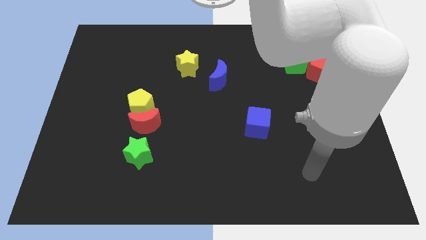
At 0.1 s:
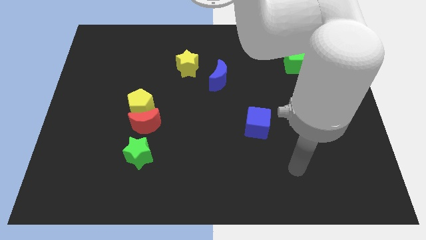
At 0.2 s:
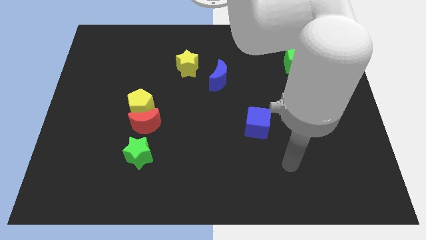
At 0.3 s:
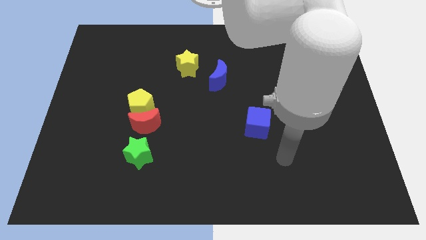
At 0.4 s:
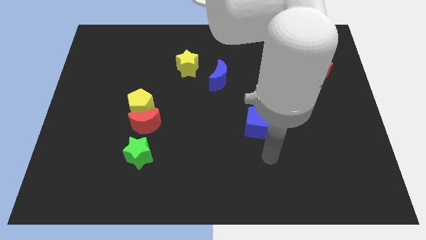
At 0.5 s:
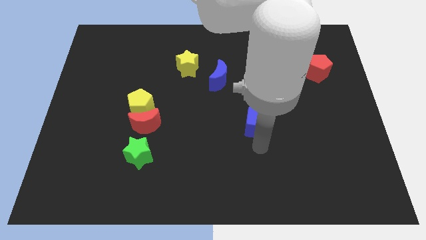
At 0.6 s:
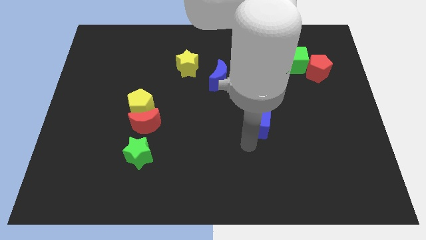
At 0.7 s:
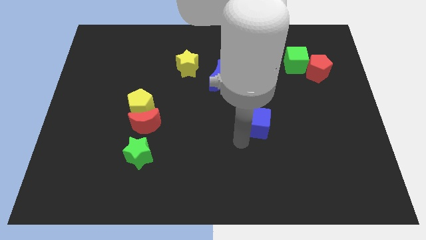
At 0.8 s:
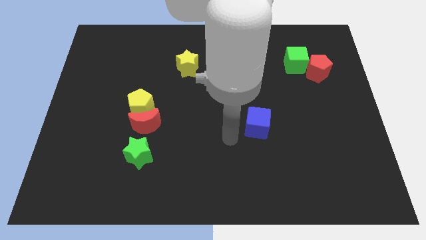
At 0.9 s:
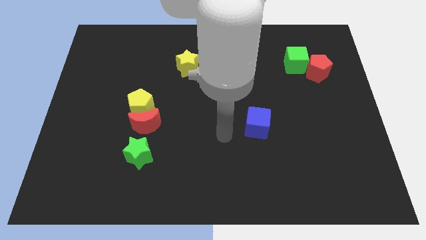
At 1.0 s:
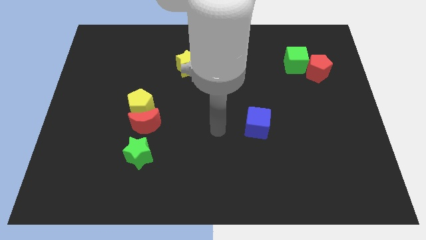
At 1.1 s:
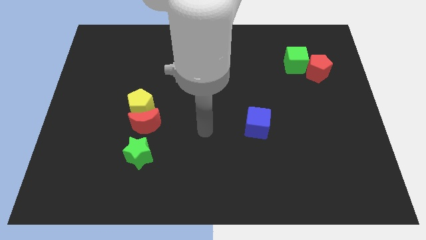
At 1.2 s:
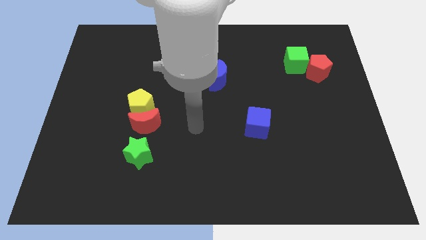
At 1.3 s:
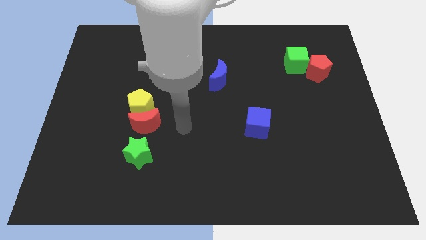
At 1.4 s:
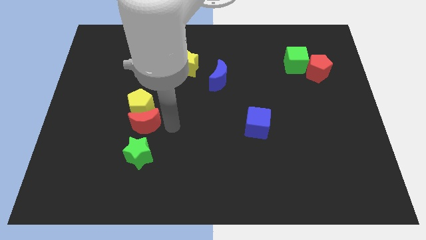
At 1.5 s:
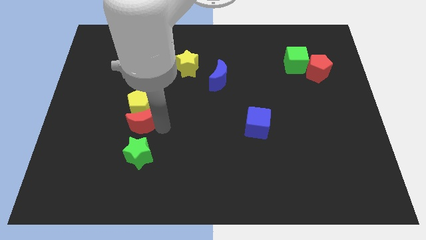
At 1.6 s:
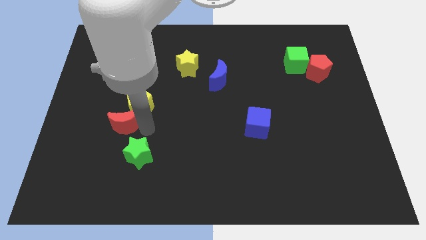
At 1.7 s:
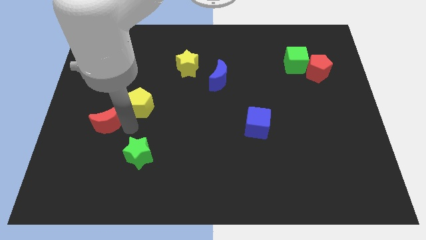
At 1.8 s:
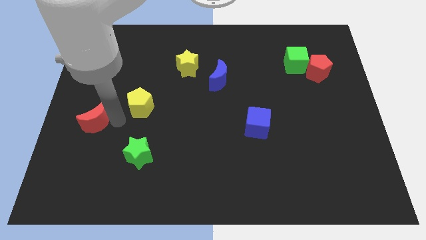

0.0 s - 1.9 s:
move the yellow pentagon away from the red moon

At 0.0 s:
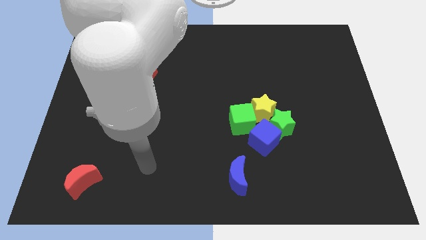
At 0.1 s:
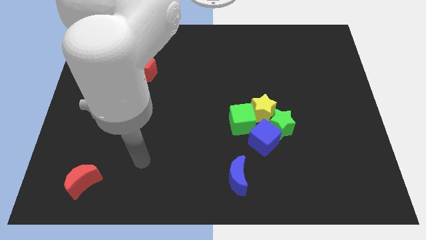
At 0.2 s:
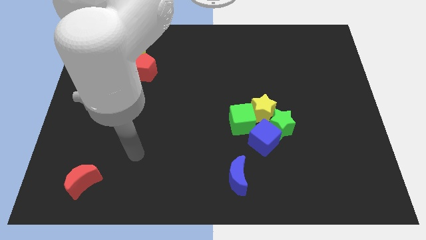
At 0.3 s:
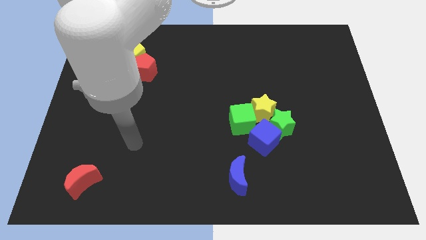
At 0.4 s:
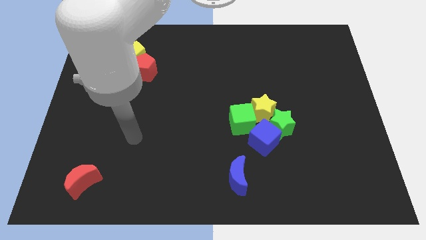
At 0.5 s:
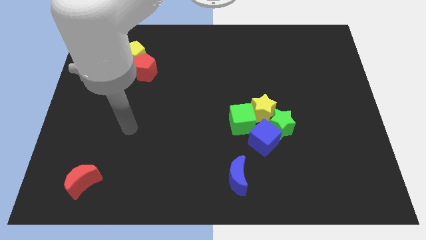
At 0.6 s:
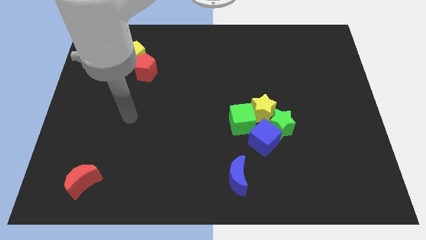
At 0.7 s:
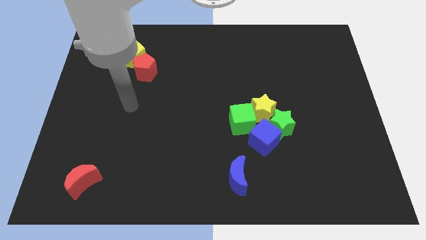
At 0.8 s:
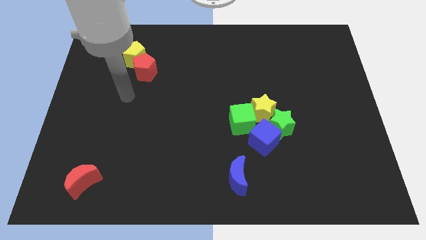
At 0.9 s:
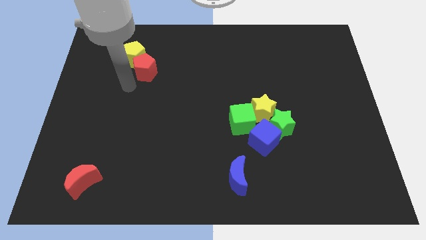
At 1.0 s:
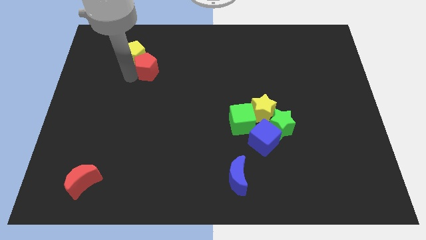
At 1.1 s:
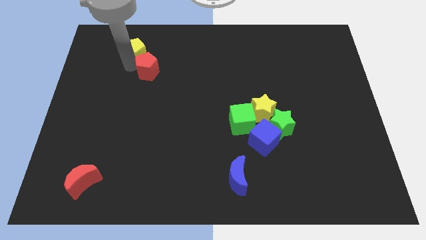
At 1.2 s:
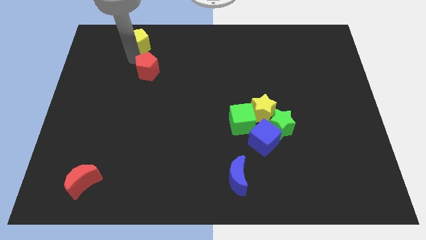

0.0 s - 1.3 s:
pull the red pentagon apart from the yellow pentagon

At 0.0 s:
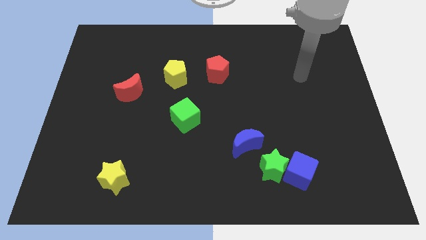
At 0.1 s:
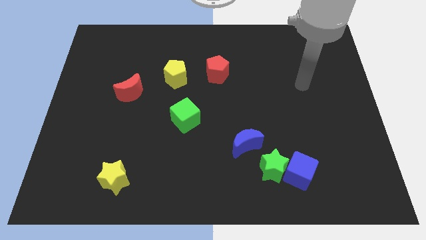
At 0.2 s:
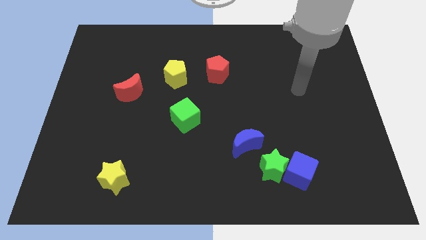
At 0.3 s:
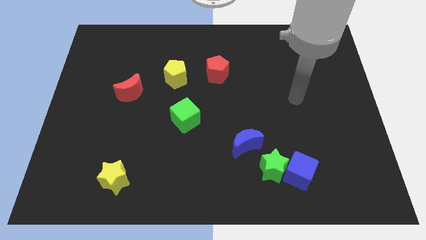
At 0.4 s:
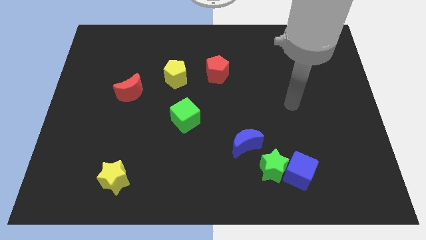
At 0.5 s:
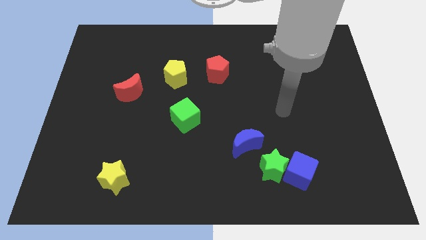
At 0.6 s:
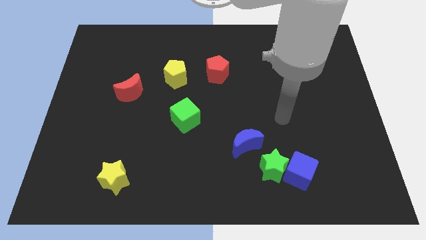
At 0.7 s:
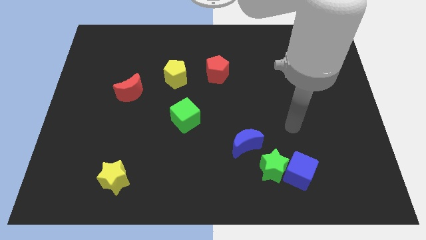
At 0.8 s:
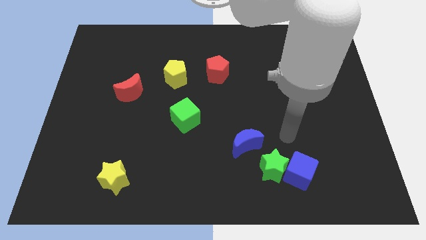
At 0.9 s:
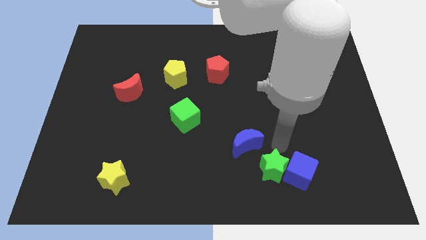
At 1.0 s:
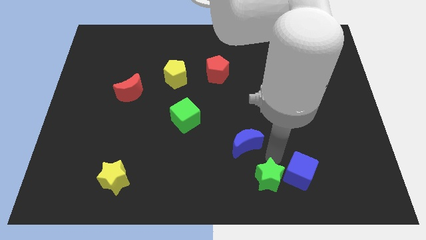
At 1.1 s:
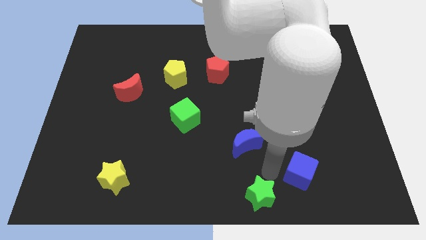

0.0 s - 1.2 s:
separate the blue cube from the green star

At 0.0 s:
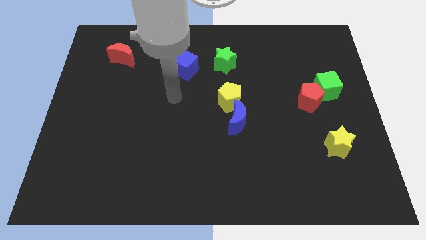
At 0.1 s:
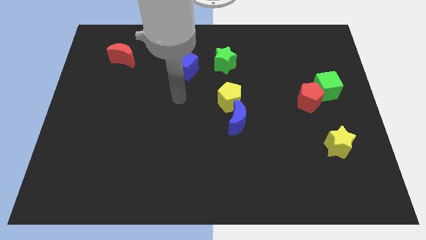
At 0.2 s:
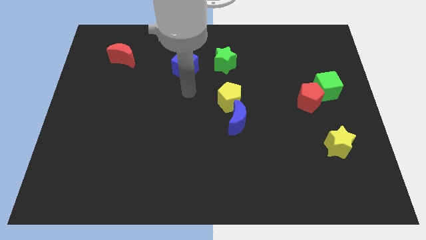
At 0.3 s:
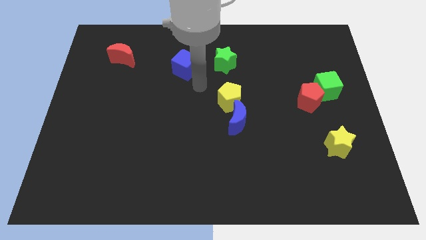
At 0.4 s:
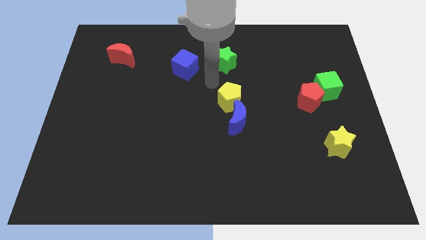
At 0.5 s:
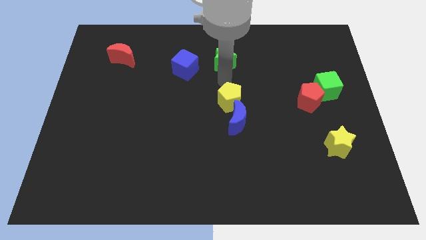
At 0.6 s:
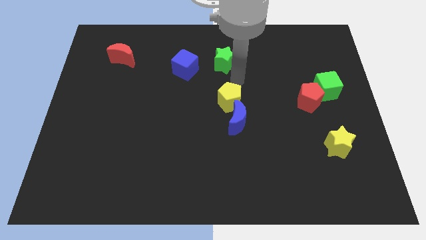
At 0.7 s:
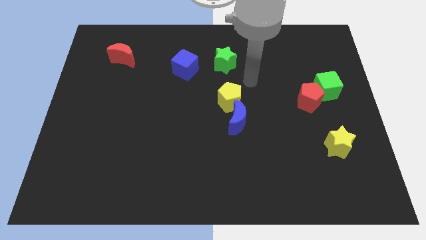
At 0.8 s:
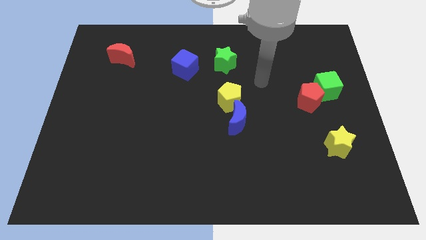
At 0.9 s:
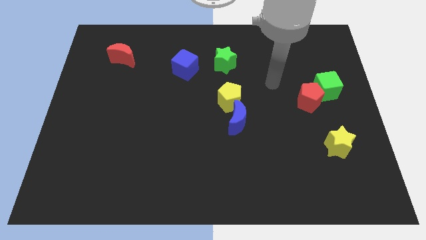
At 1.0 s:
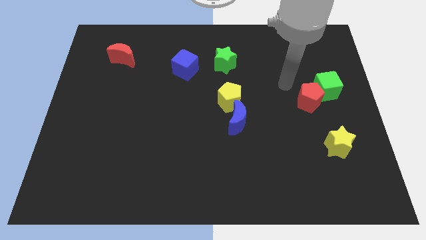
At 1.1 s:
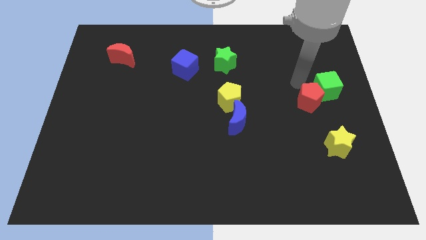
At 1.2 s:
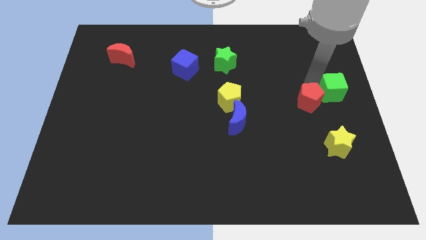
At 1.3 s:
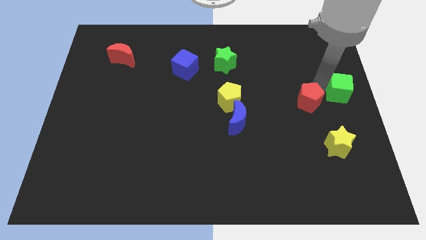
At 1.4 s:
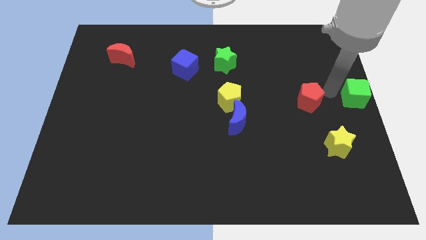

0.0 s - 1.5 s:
separate the red pentagon from the green cube

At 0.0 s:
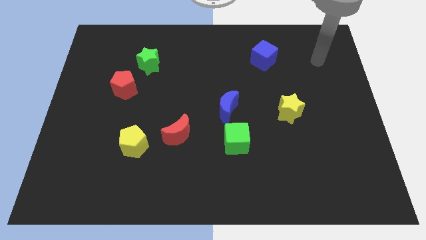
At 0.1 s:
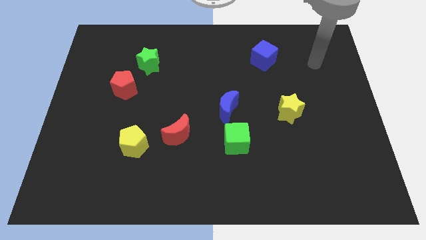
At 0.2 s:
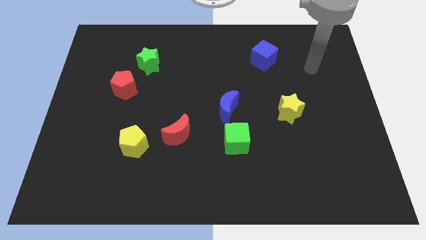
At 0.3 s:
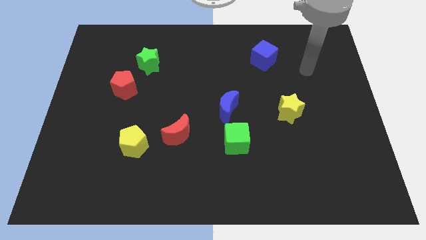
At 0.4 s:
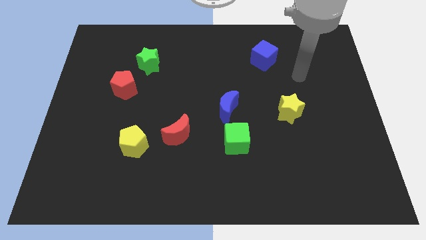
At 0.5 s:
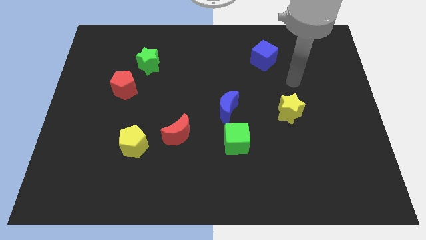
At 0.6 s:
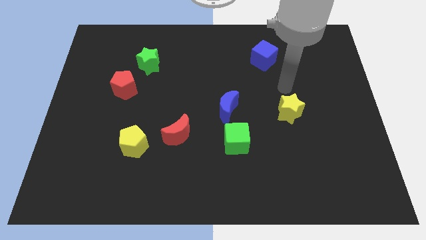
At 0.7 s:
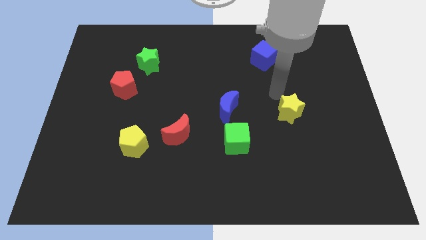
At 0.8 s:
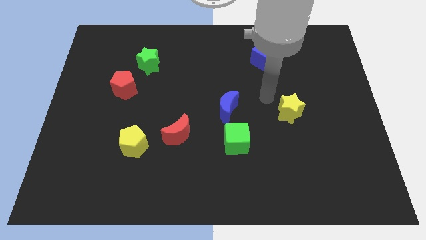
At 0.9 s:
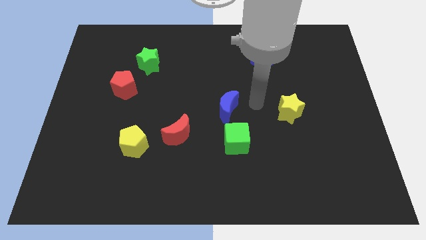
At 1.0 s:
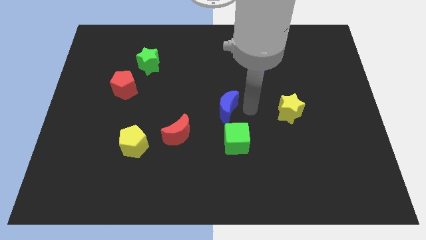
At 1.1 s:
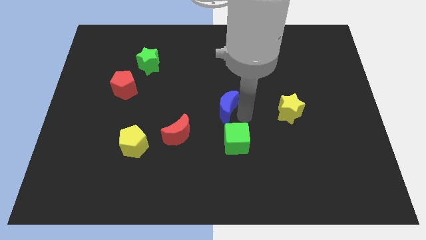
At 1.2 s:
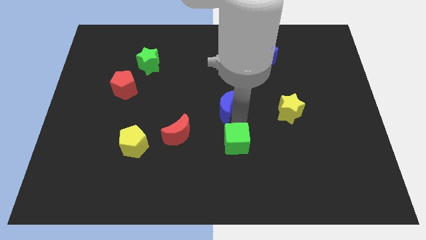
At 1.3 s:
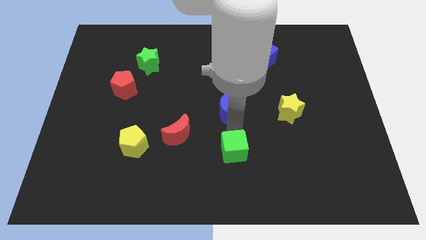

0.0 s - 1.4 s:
move the blue moon away from the green cube

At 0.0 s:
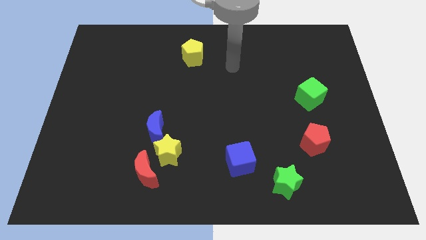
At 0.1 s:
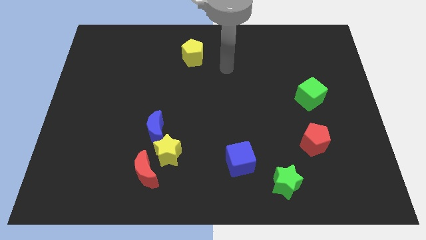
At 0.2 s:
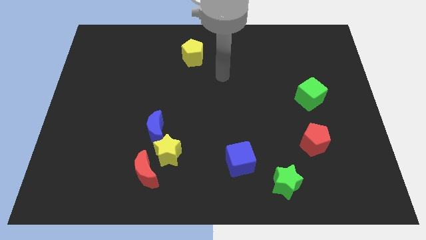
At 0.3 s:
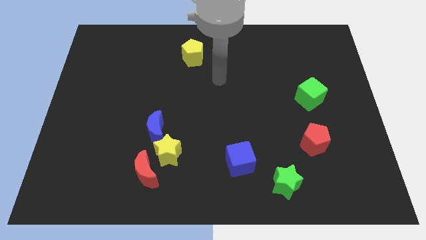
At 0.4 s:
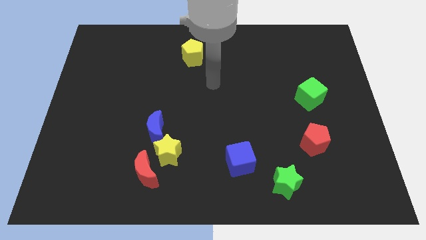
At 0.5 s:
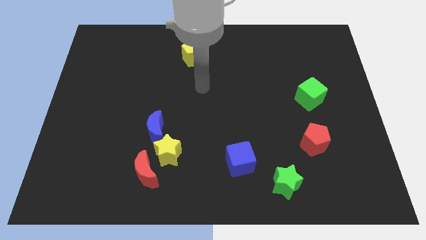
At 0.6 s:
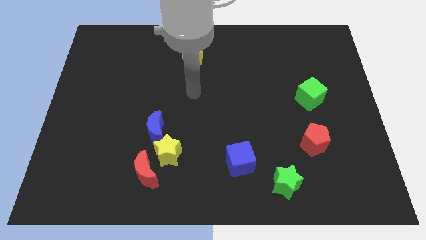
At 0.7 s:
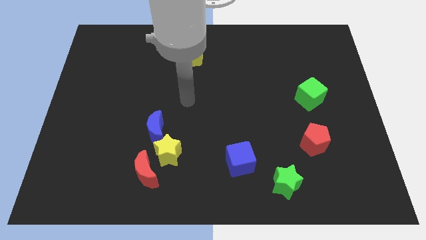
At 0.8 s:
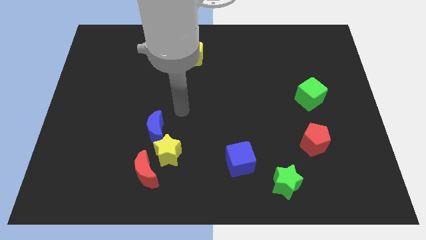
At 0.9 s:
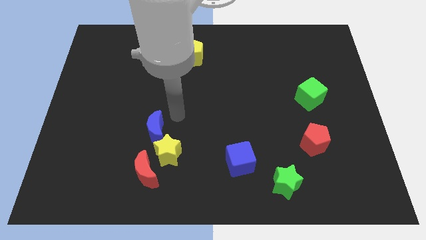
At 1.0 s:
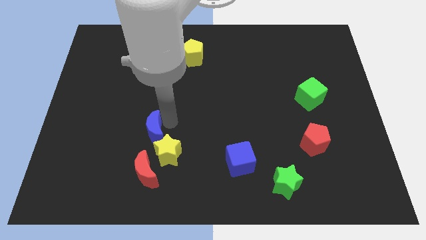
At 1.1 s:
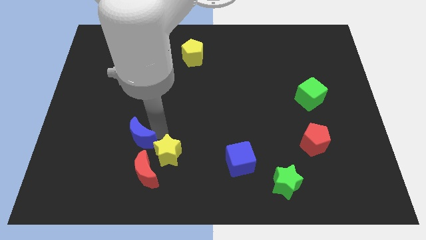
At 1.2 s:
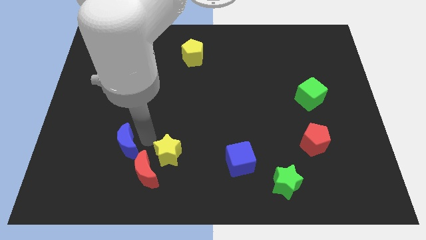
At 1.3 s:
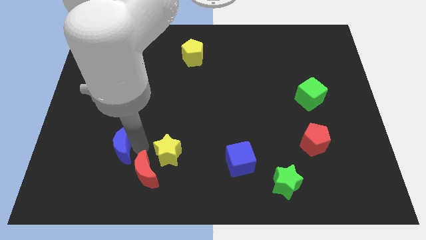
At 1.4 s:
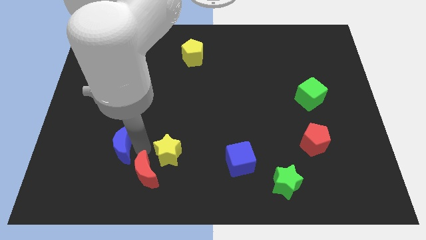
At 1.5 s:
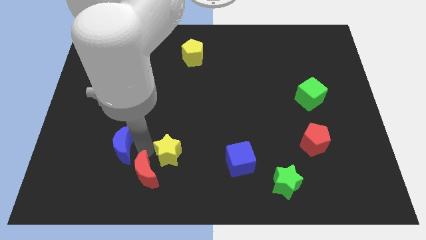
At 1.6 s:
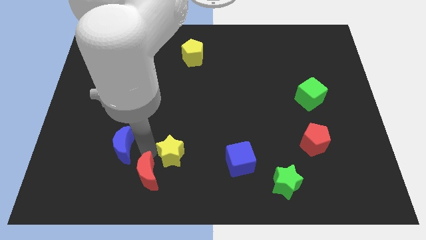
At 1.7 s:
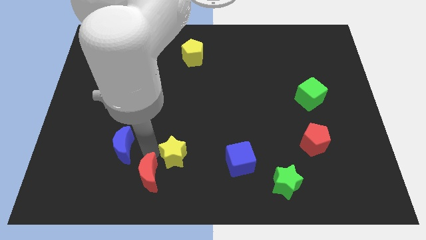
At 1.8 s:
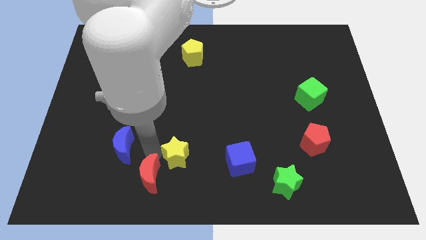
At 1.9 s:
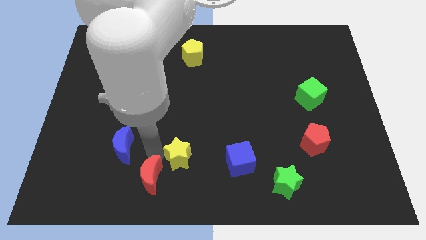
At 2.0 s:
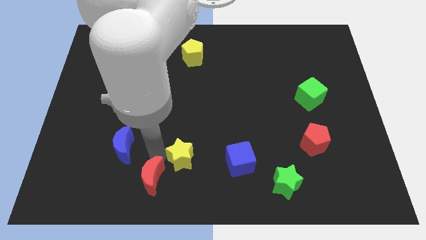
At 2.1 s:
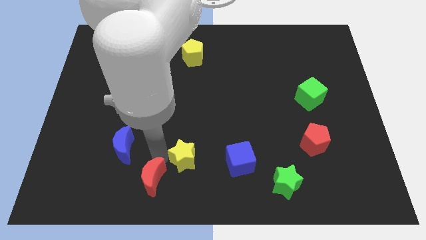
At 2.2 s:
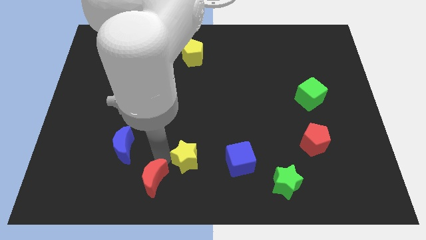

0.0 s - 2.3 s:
move the yellow star away from the red moon and blue moon
